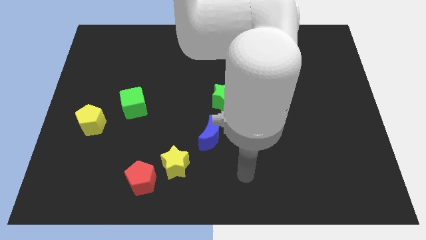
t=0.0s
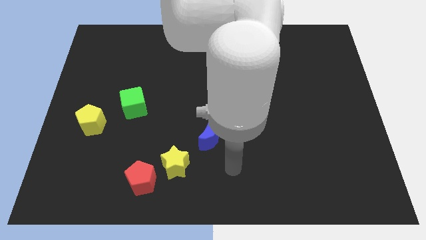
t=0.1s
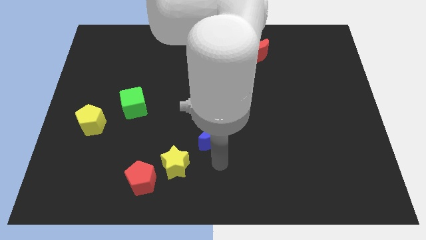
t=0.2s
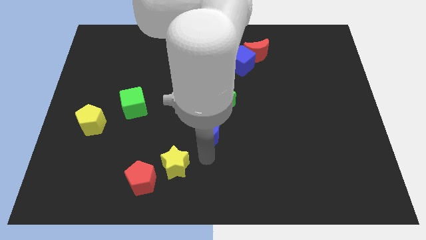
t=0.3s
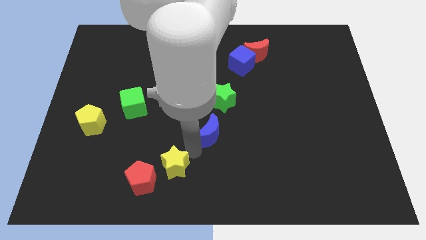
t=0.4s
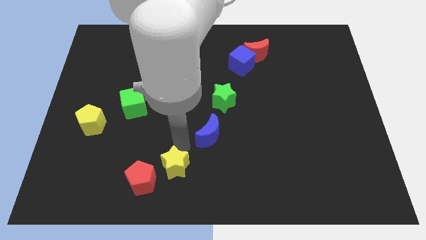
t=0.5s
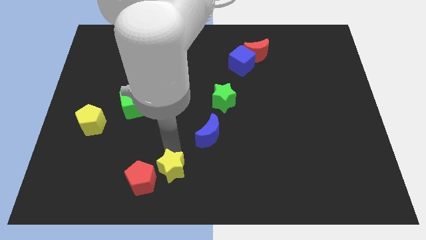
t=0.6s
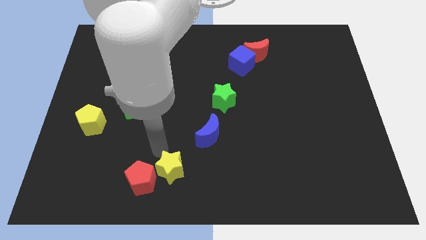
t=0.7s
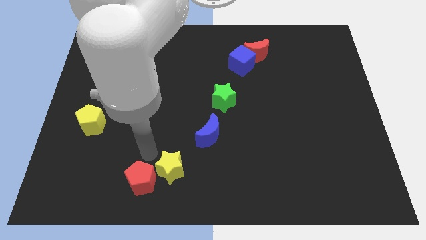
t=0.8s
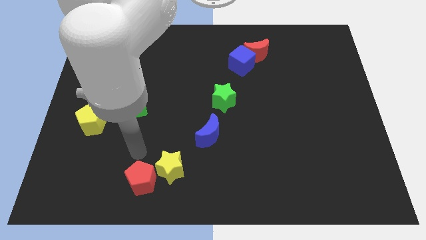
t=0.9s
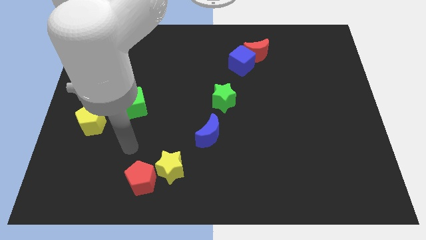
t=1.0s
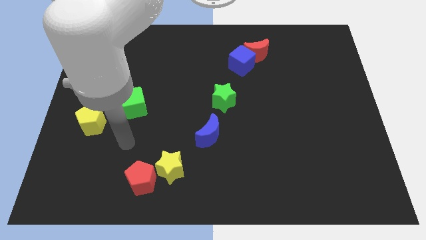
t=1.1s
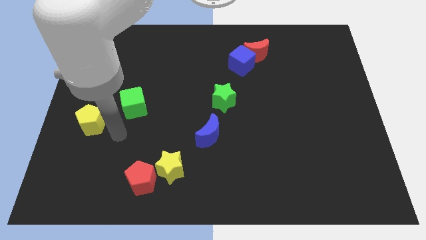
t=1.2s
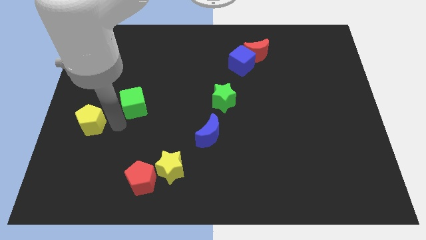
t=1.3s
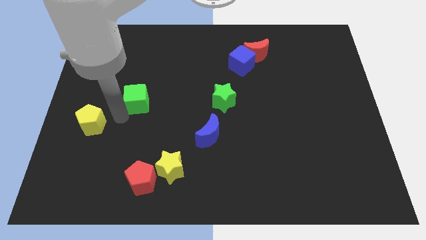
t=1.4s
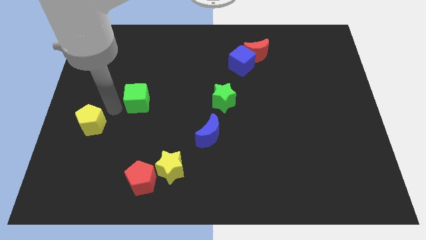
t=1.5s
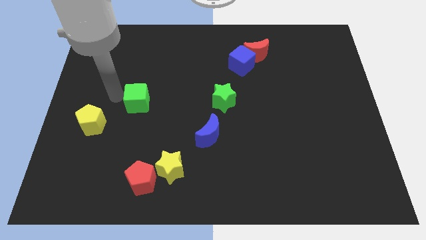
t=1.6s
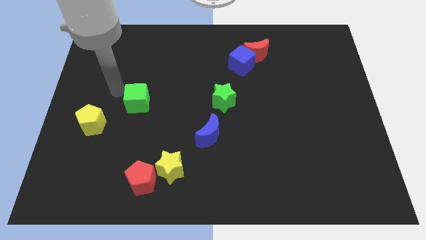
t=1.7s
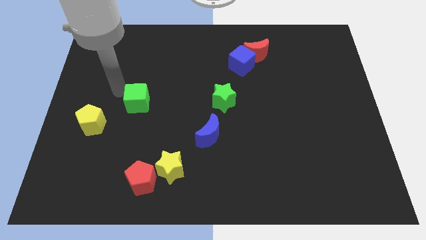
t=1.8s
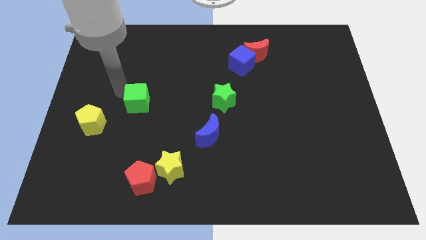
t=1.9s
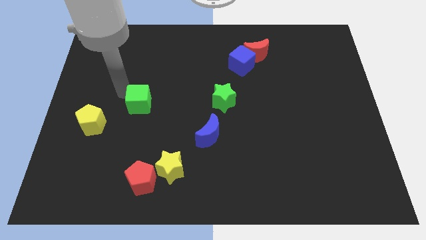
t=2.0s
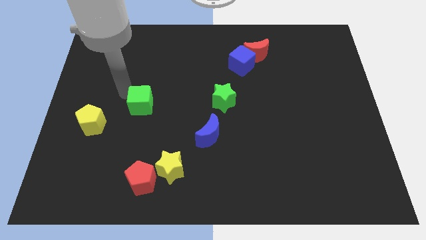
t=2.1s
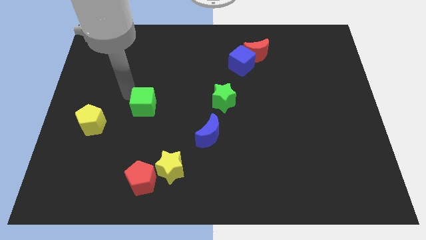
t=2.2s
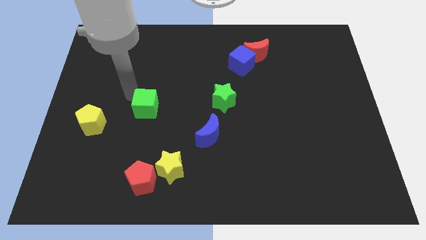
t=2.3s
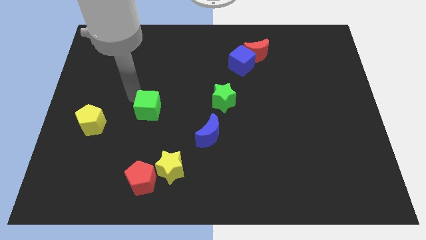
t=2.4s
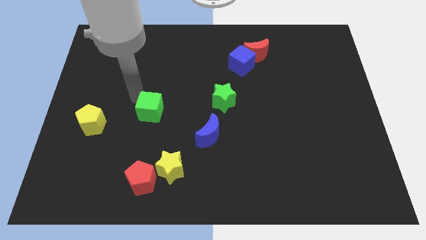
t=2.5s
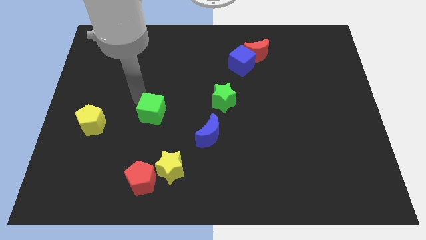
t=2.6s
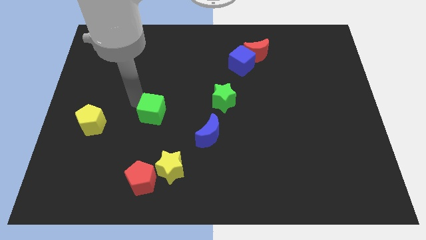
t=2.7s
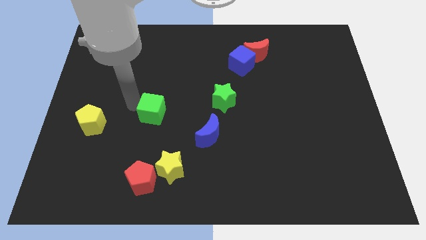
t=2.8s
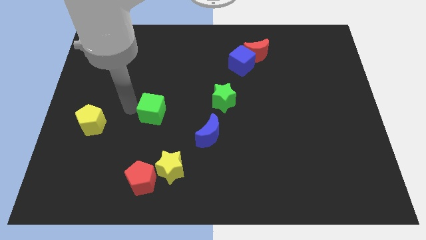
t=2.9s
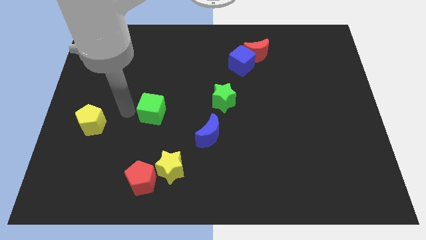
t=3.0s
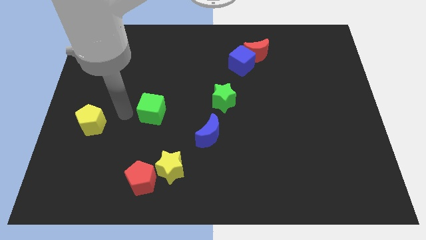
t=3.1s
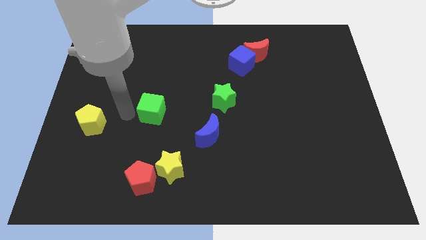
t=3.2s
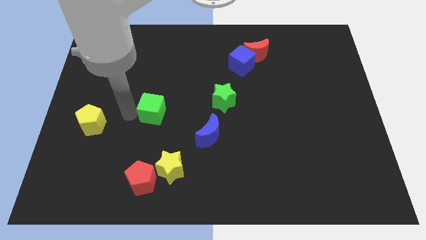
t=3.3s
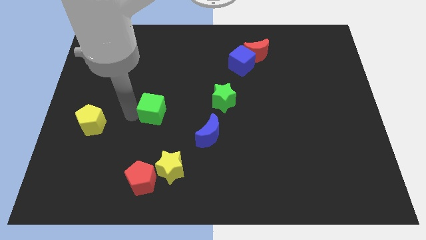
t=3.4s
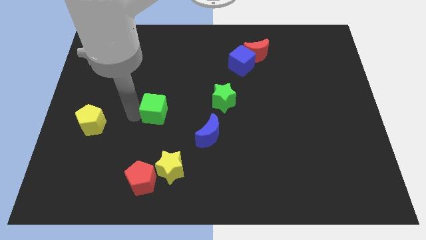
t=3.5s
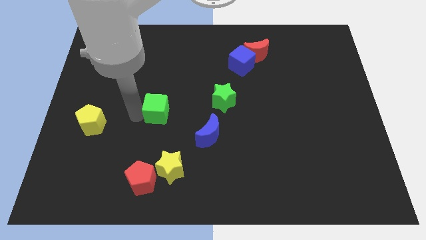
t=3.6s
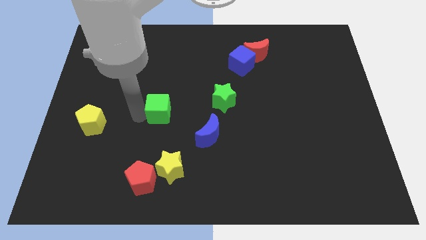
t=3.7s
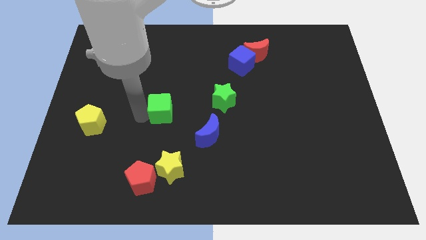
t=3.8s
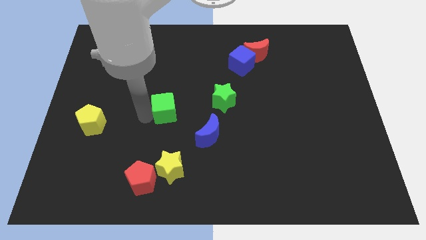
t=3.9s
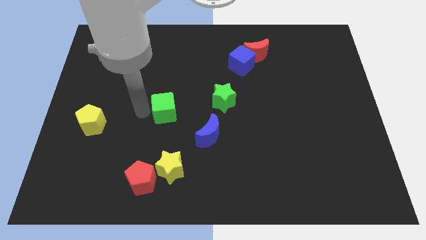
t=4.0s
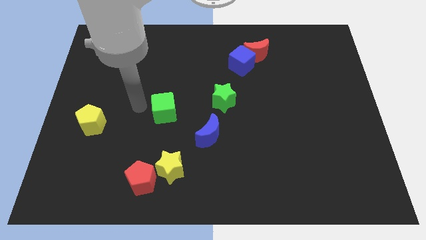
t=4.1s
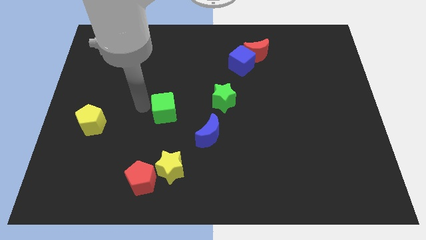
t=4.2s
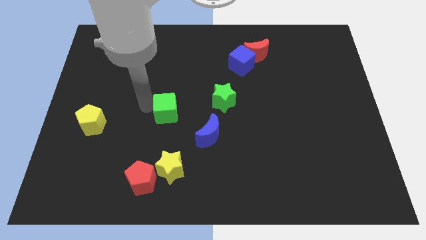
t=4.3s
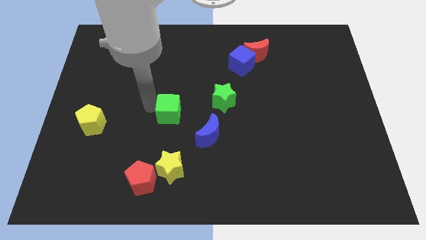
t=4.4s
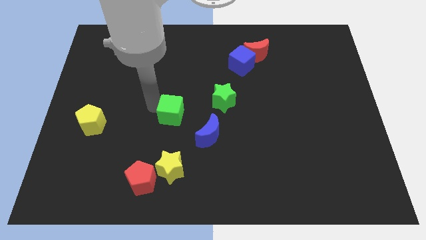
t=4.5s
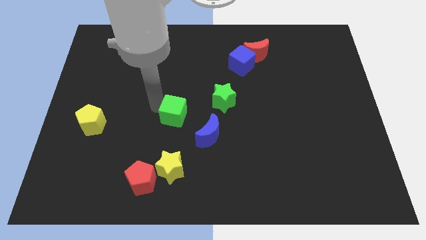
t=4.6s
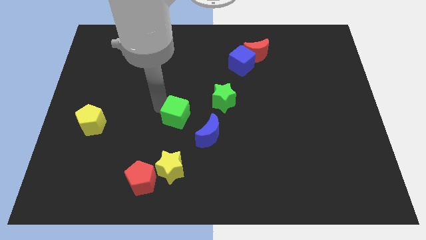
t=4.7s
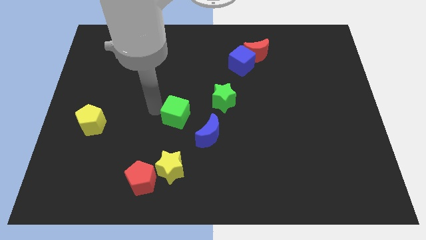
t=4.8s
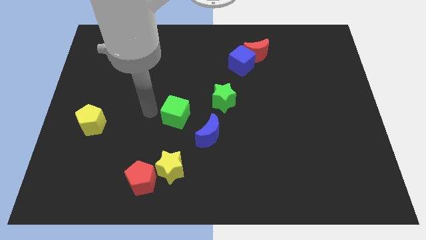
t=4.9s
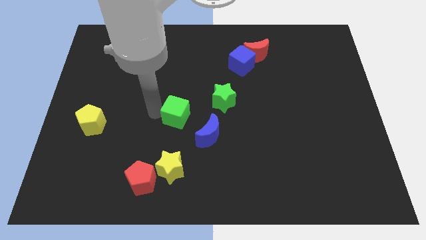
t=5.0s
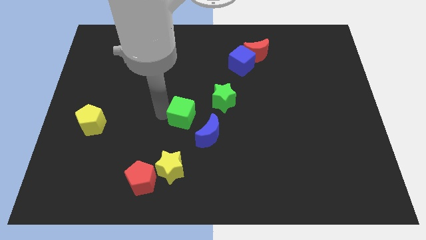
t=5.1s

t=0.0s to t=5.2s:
put the green cube to the bottom left of the green star

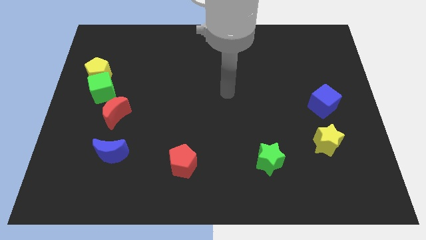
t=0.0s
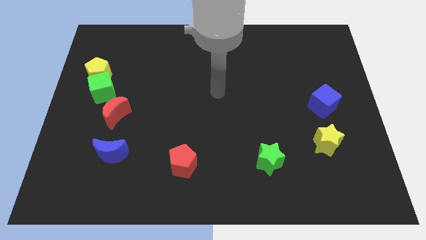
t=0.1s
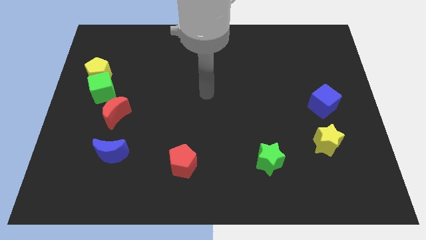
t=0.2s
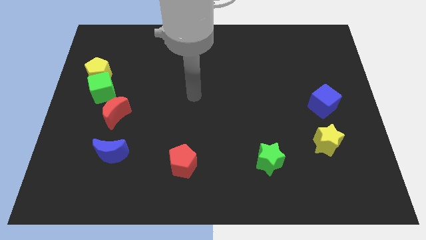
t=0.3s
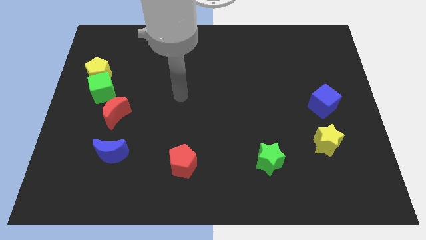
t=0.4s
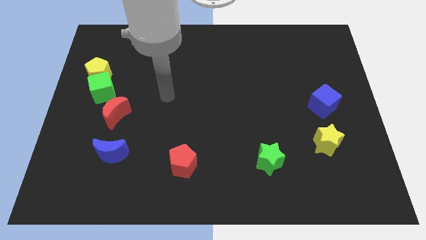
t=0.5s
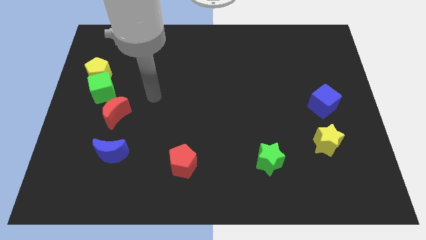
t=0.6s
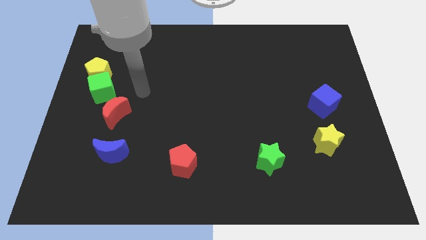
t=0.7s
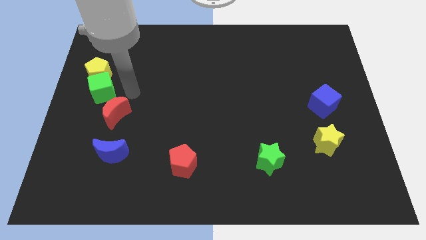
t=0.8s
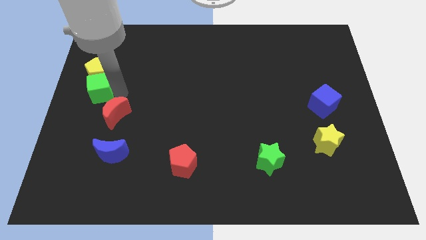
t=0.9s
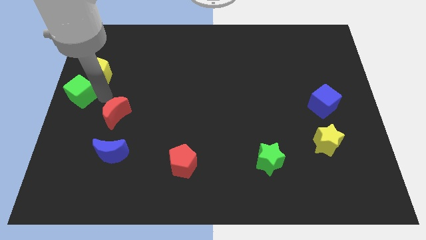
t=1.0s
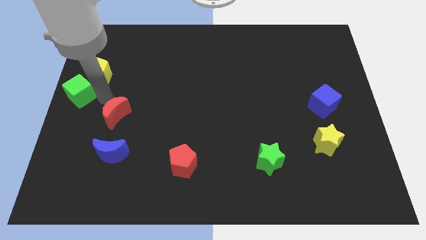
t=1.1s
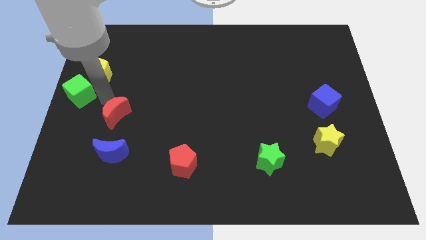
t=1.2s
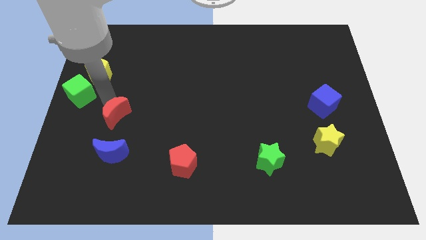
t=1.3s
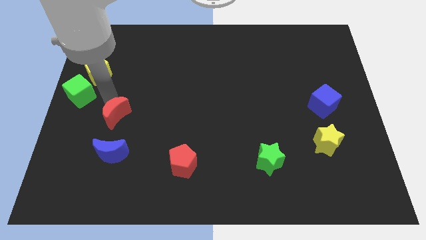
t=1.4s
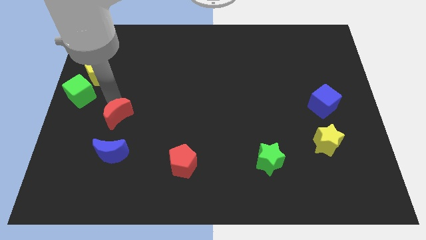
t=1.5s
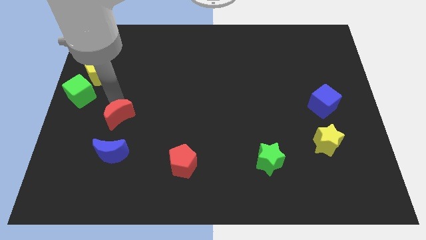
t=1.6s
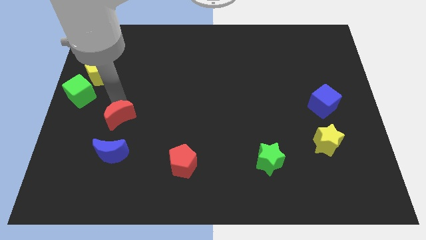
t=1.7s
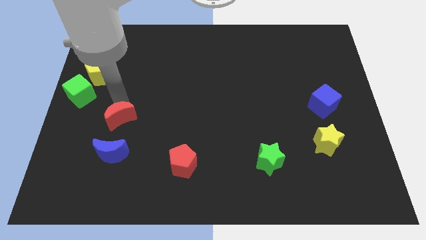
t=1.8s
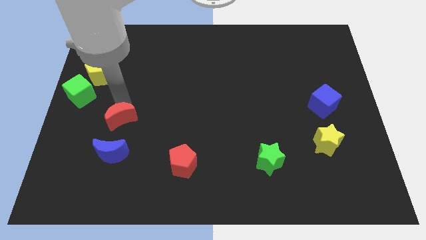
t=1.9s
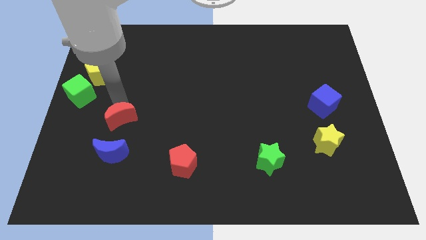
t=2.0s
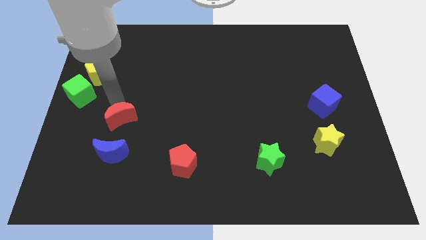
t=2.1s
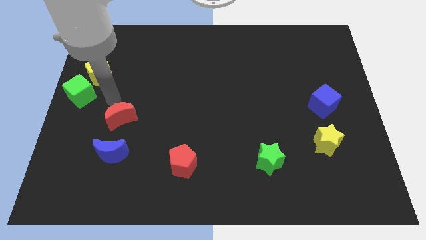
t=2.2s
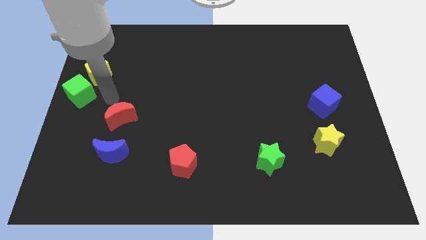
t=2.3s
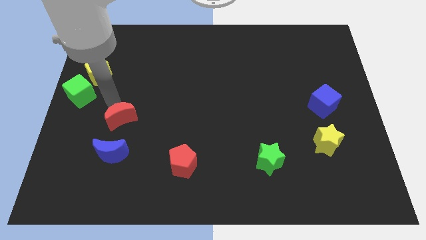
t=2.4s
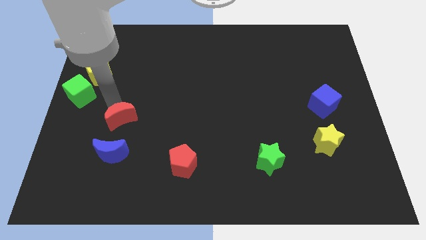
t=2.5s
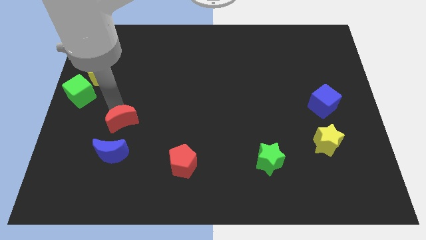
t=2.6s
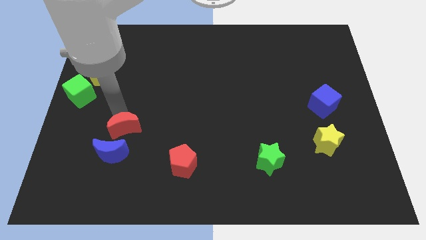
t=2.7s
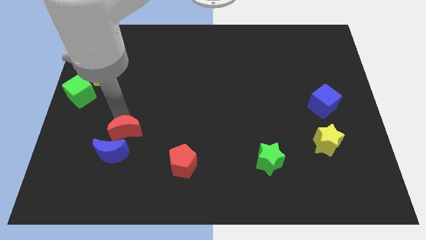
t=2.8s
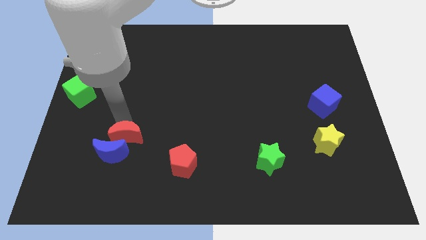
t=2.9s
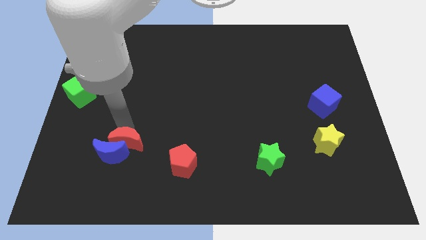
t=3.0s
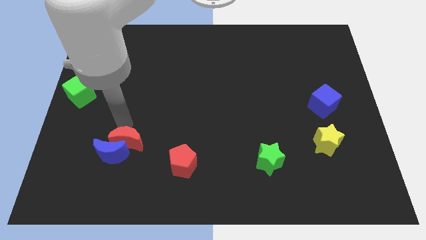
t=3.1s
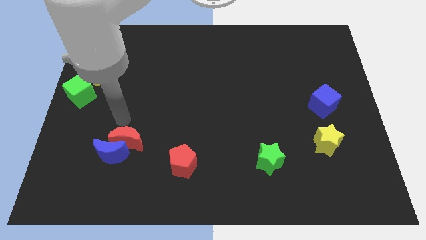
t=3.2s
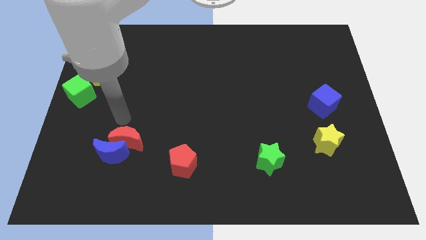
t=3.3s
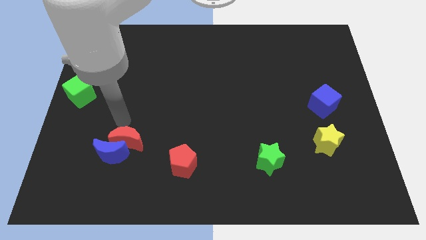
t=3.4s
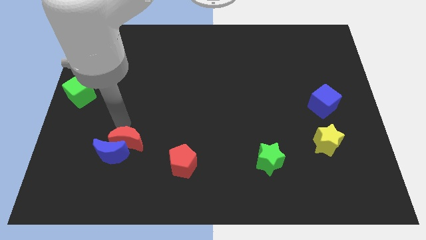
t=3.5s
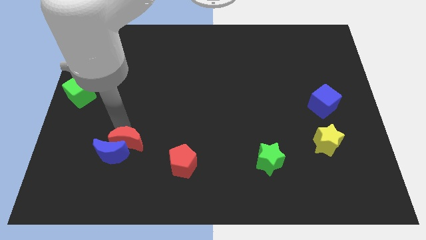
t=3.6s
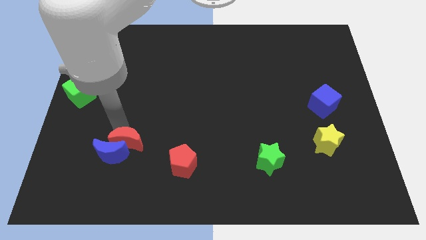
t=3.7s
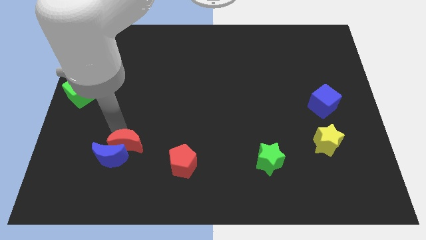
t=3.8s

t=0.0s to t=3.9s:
move the red moon to the left of the red pentagon
